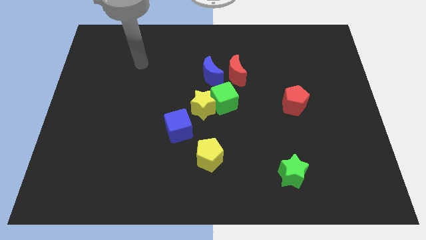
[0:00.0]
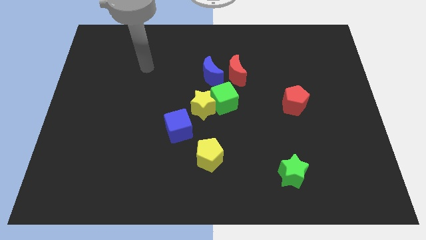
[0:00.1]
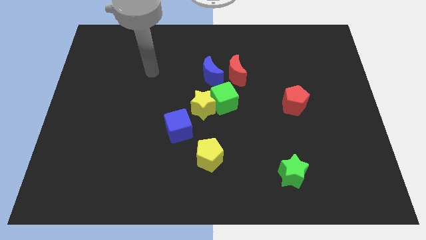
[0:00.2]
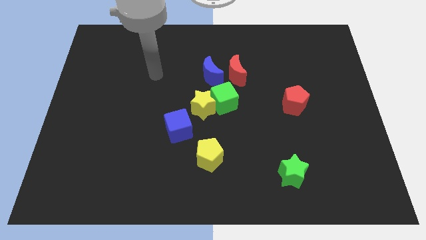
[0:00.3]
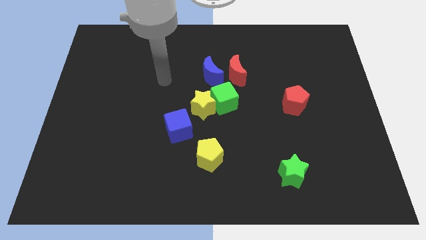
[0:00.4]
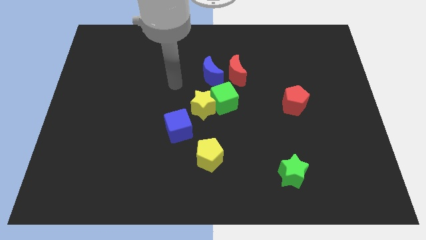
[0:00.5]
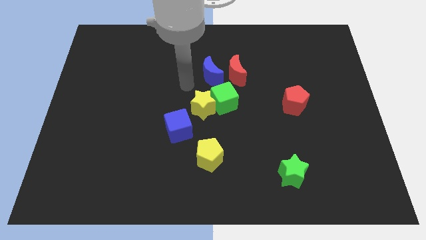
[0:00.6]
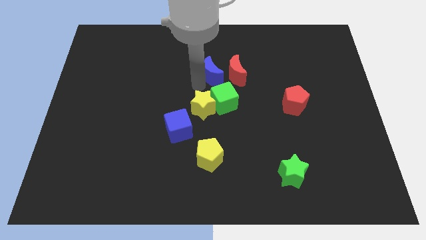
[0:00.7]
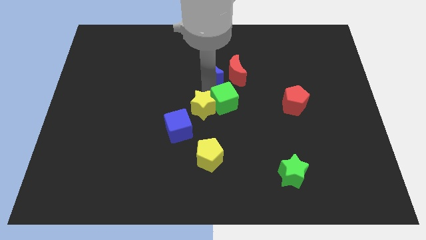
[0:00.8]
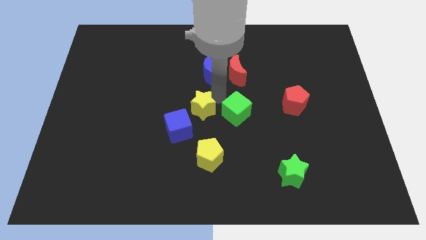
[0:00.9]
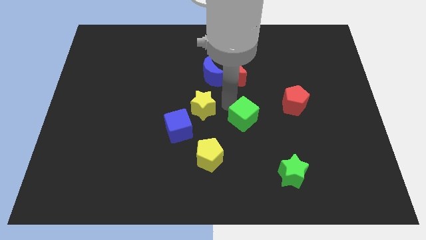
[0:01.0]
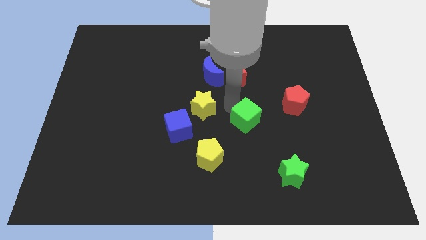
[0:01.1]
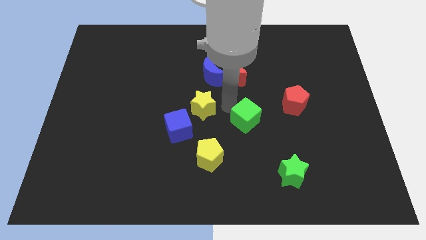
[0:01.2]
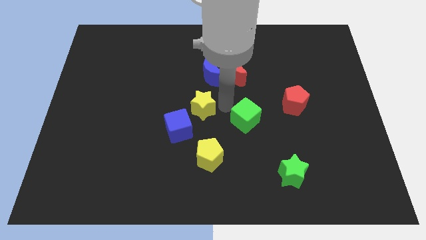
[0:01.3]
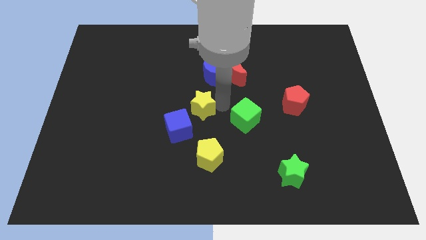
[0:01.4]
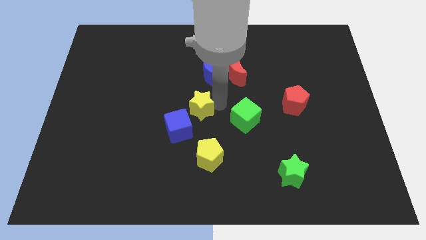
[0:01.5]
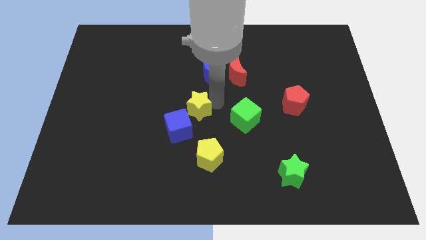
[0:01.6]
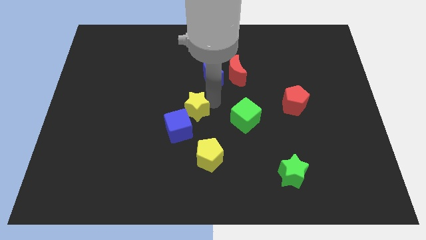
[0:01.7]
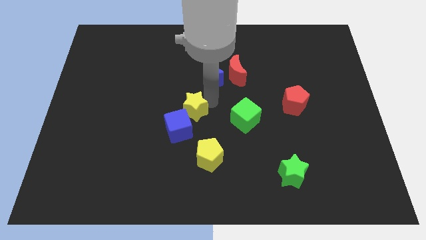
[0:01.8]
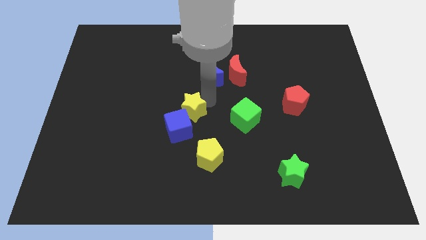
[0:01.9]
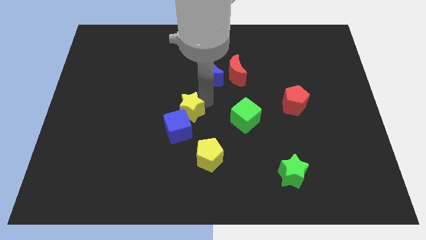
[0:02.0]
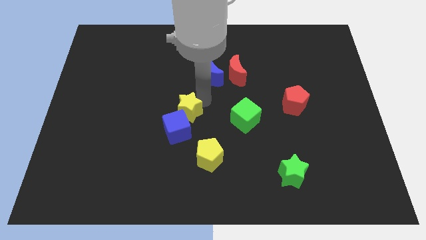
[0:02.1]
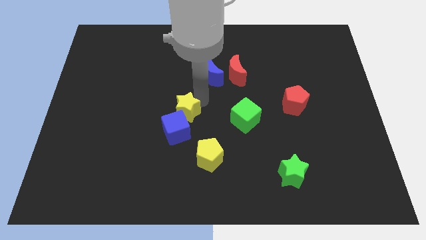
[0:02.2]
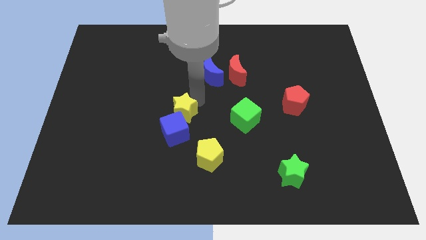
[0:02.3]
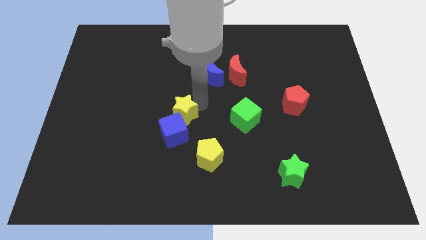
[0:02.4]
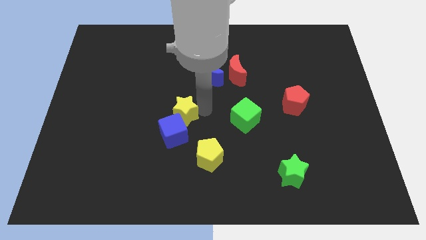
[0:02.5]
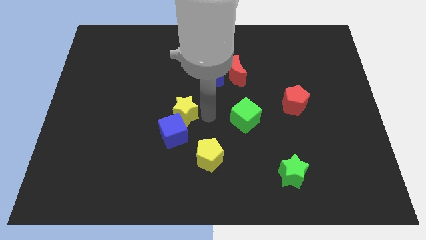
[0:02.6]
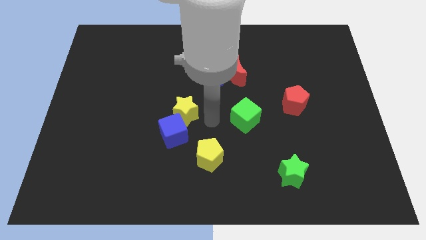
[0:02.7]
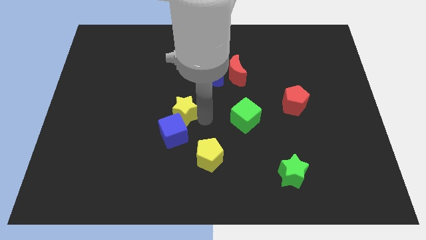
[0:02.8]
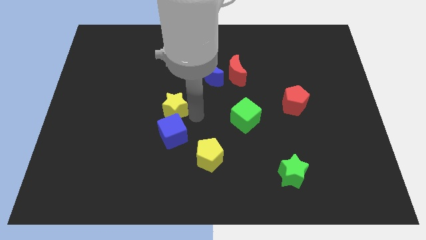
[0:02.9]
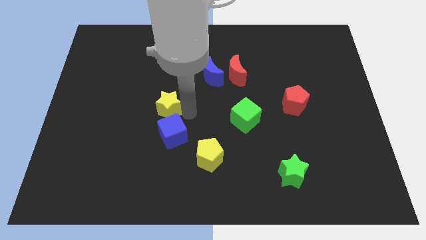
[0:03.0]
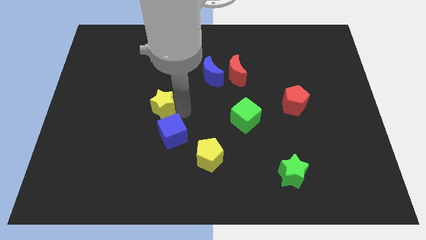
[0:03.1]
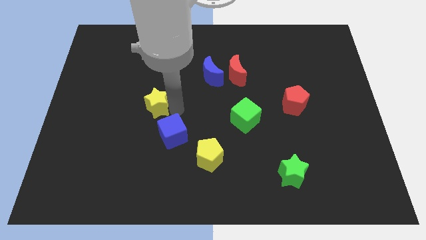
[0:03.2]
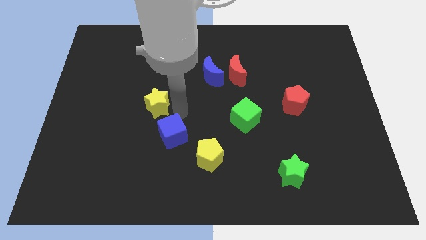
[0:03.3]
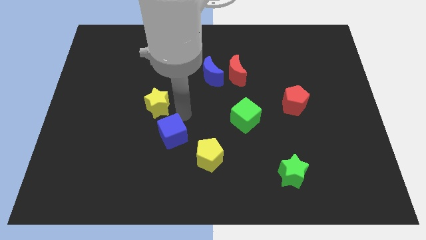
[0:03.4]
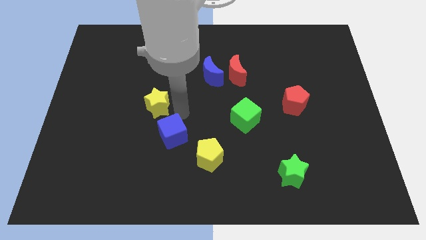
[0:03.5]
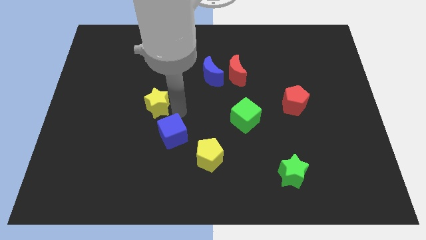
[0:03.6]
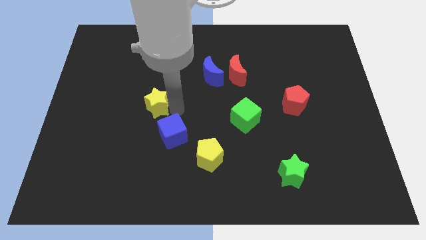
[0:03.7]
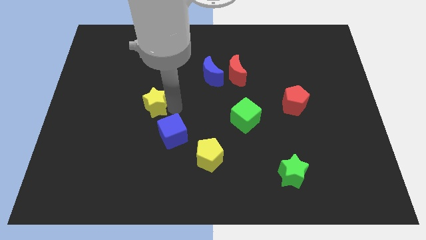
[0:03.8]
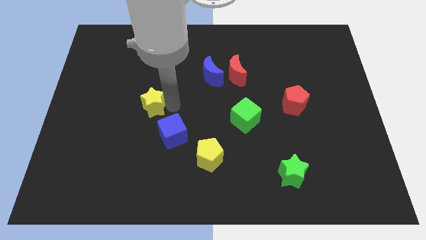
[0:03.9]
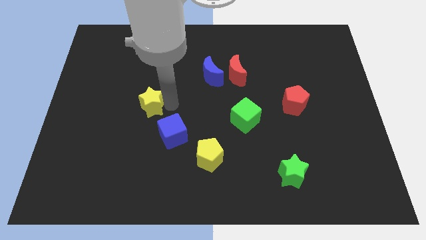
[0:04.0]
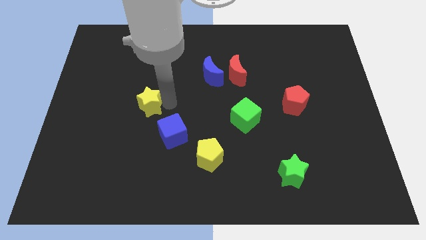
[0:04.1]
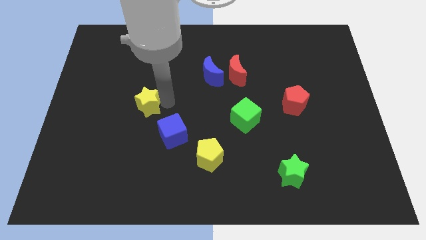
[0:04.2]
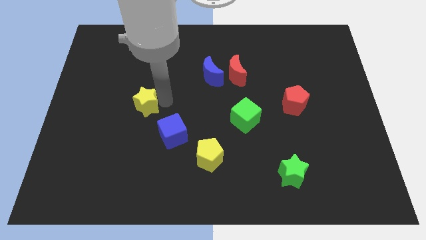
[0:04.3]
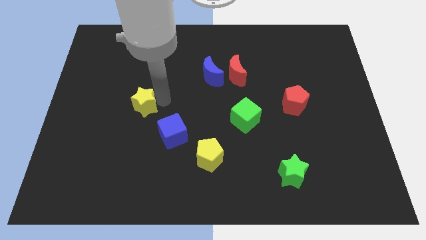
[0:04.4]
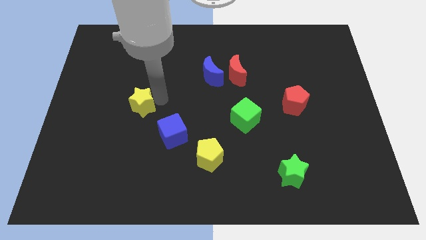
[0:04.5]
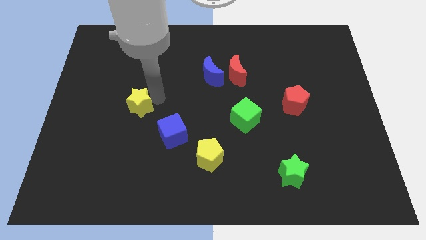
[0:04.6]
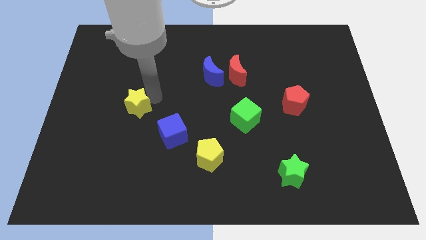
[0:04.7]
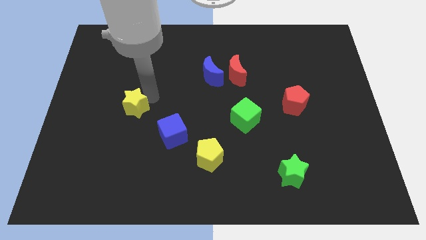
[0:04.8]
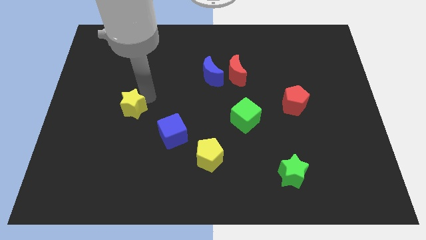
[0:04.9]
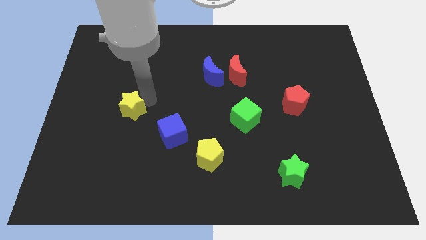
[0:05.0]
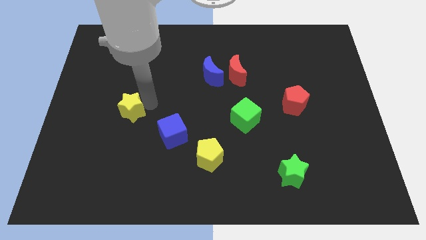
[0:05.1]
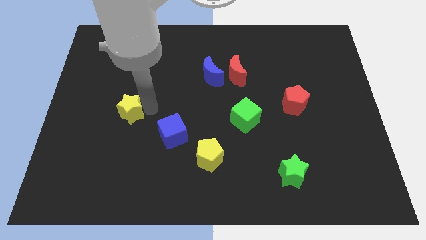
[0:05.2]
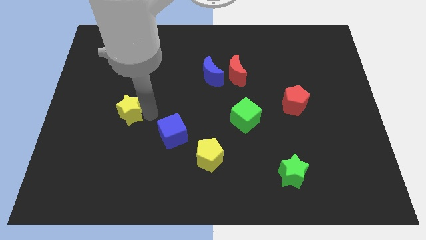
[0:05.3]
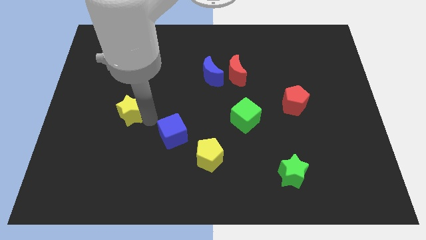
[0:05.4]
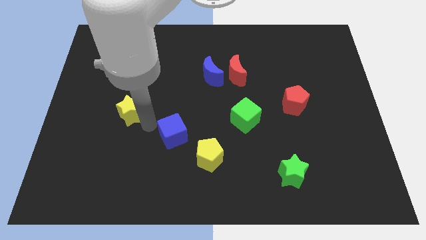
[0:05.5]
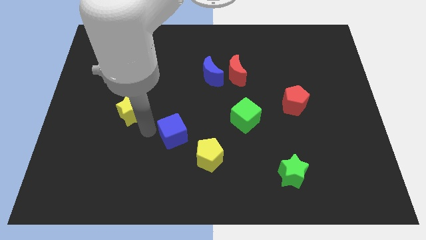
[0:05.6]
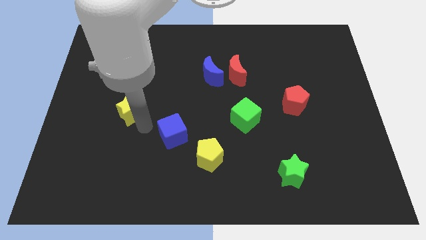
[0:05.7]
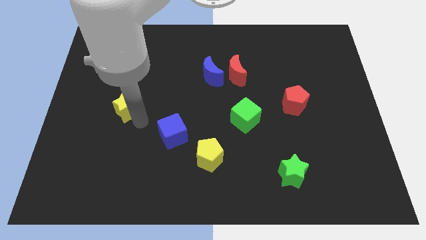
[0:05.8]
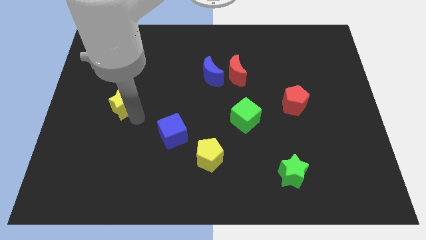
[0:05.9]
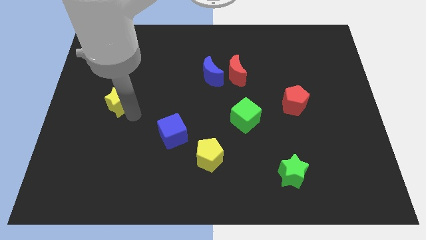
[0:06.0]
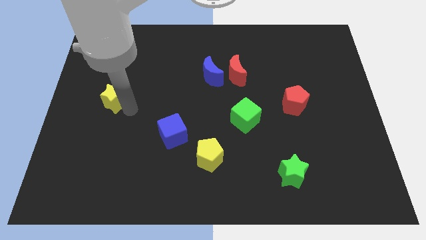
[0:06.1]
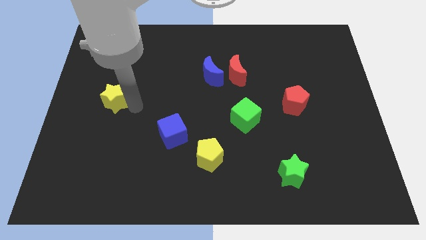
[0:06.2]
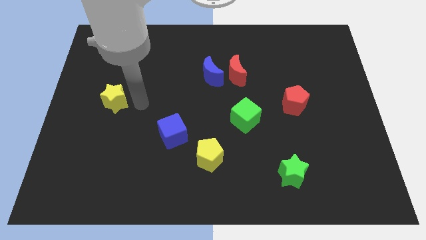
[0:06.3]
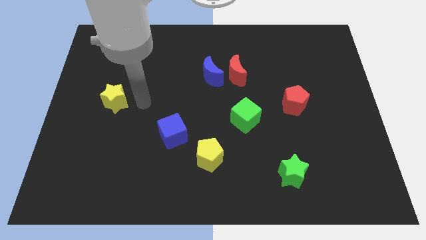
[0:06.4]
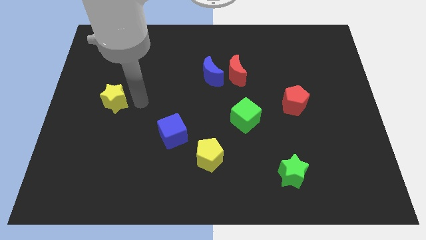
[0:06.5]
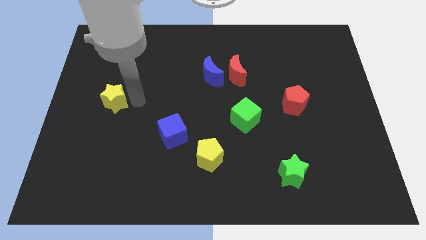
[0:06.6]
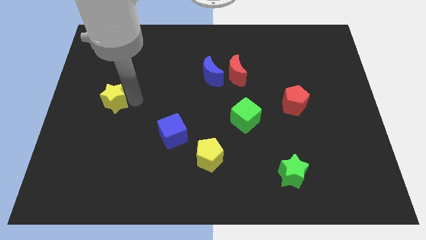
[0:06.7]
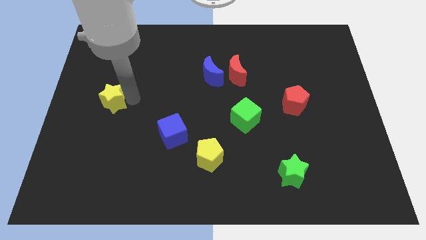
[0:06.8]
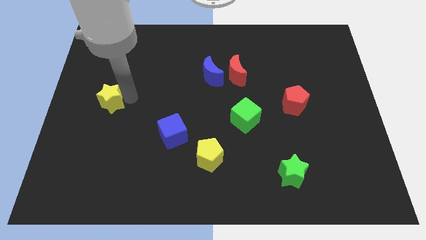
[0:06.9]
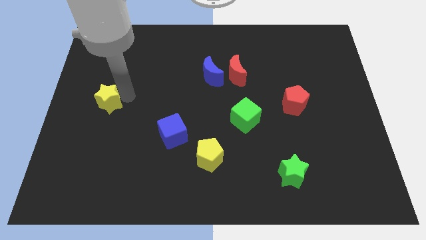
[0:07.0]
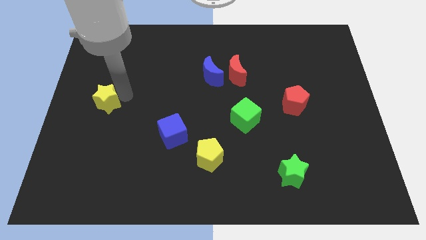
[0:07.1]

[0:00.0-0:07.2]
push the yellow star to the left side
